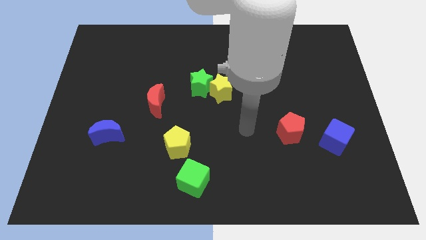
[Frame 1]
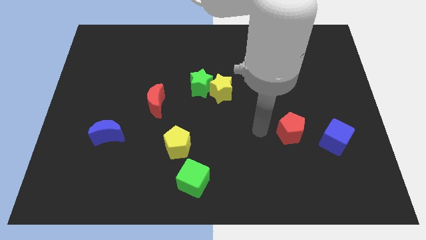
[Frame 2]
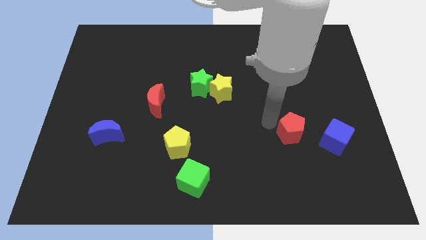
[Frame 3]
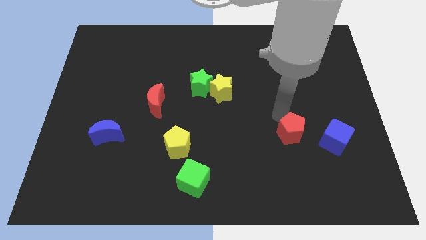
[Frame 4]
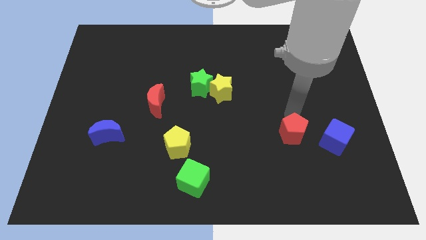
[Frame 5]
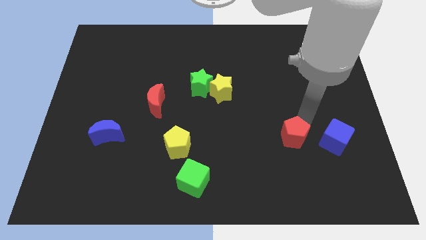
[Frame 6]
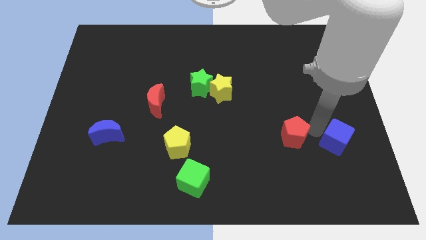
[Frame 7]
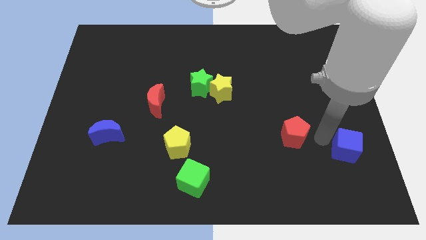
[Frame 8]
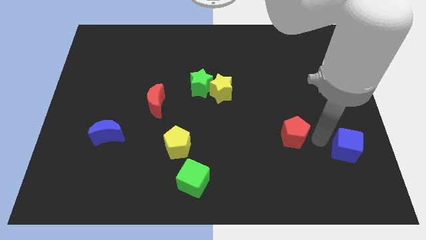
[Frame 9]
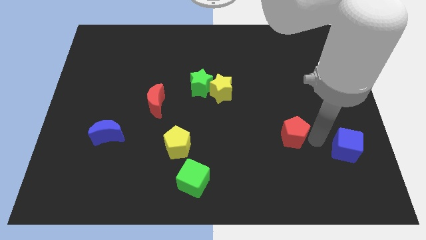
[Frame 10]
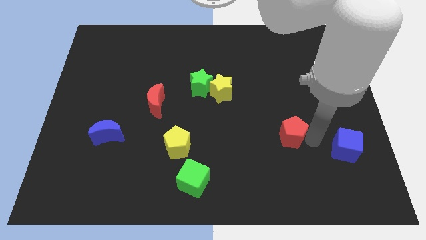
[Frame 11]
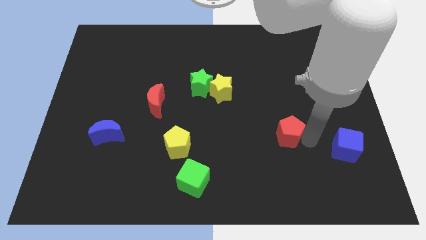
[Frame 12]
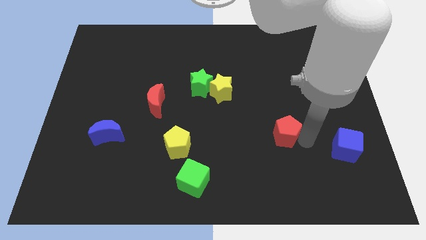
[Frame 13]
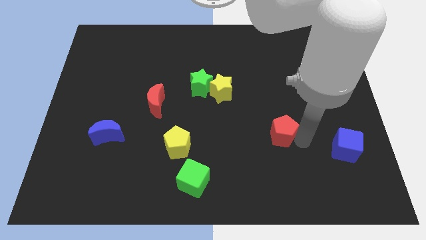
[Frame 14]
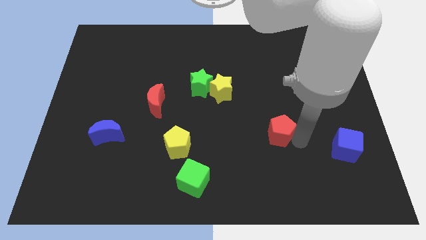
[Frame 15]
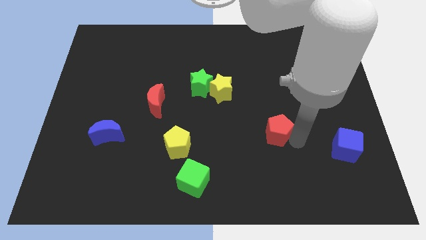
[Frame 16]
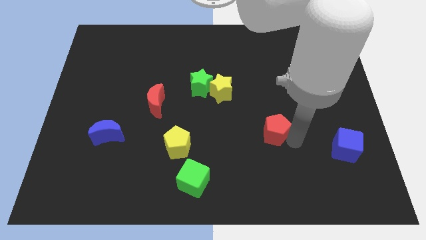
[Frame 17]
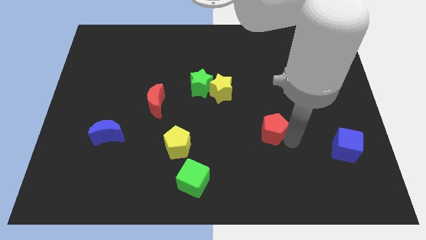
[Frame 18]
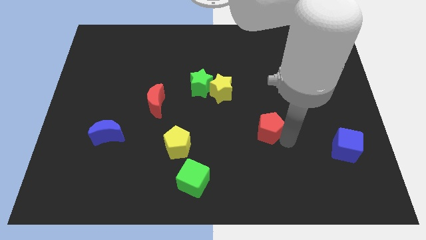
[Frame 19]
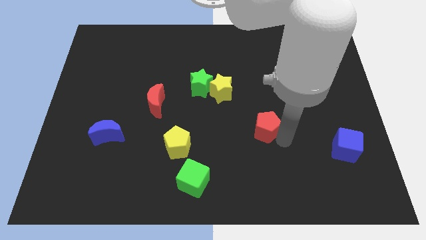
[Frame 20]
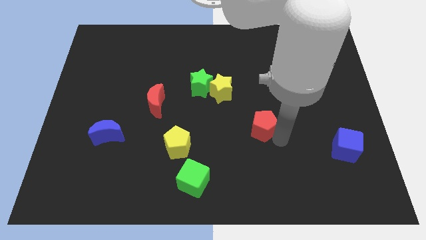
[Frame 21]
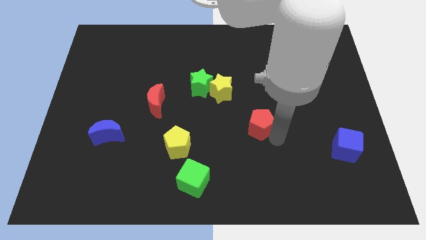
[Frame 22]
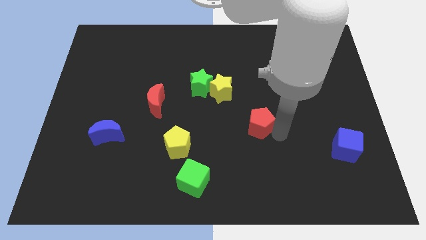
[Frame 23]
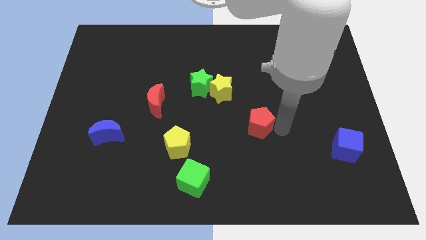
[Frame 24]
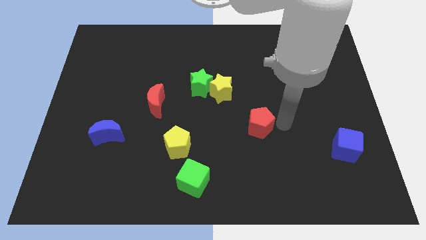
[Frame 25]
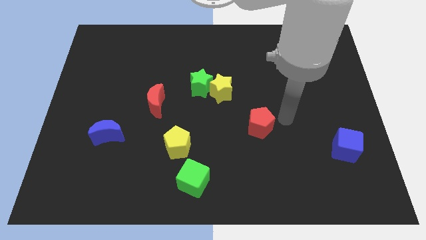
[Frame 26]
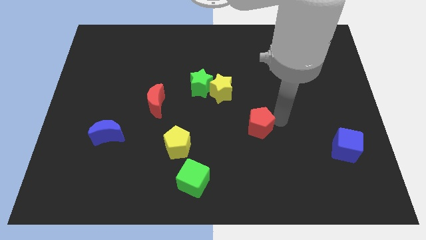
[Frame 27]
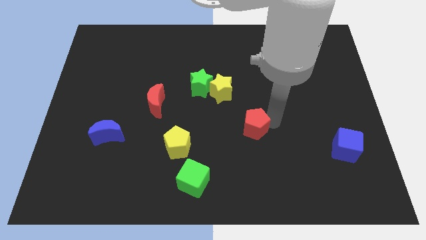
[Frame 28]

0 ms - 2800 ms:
slide the red pentagon to the left a little bit

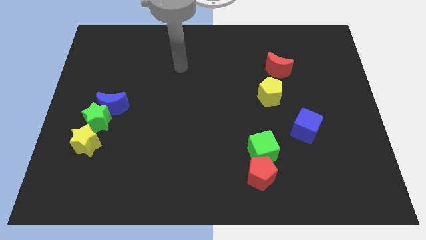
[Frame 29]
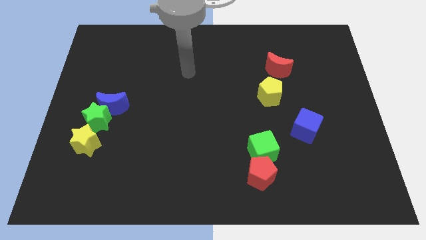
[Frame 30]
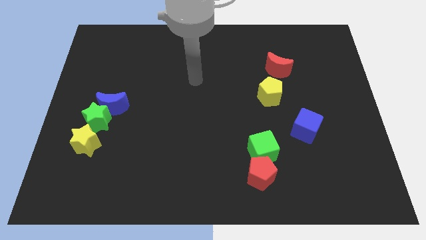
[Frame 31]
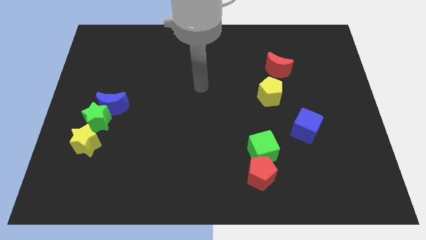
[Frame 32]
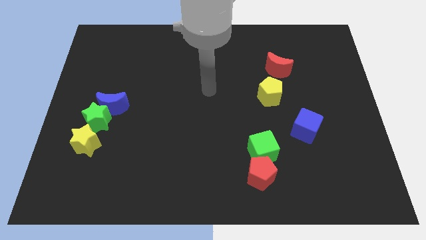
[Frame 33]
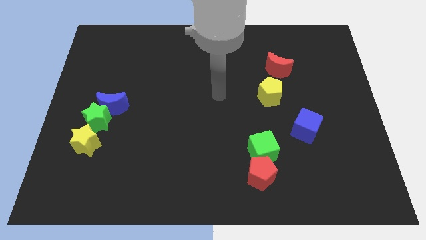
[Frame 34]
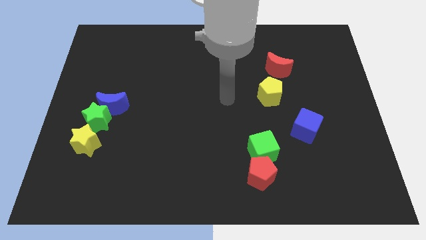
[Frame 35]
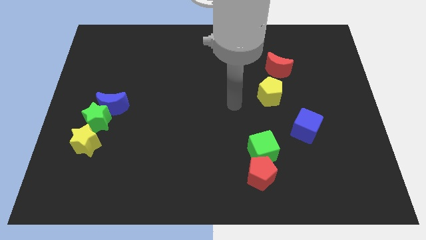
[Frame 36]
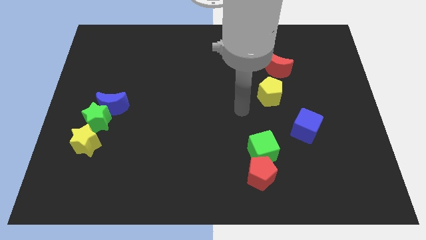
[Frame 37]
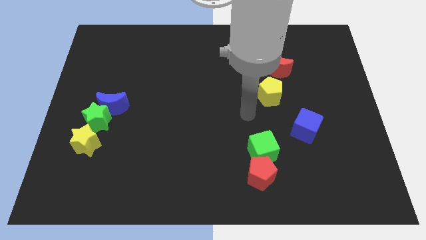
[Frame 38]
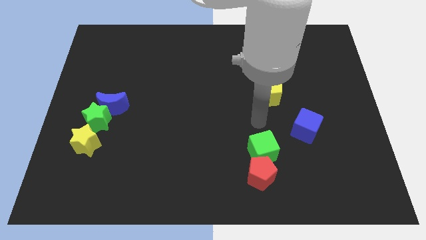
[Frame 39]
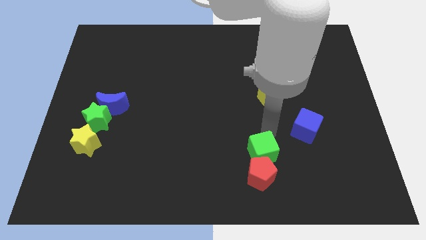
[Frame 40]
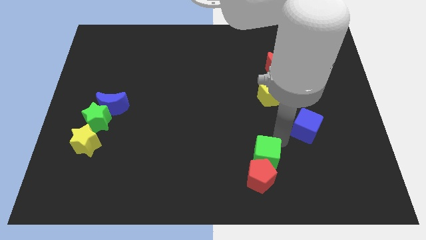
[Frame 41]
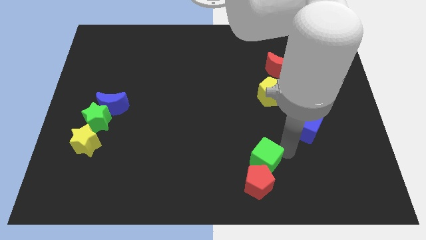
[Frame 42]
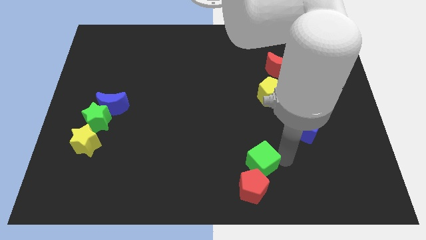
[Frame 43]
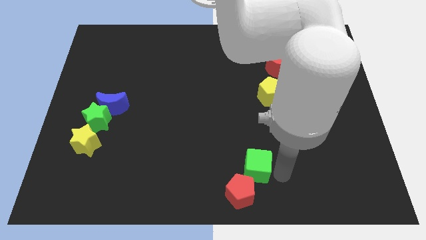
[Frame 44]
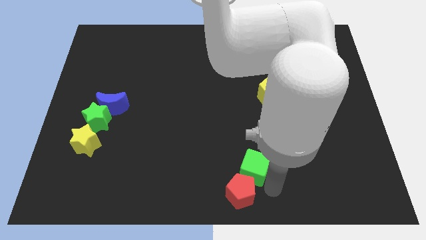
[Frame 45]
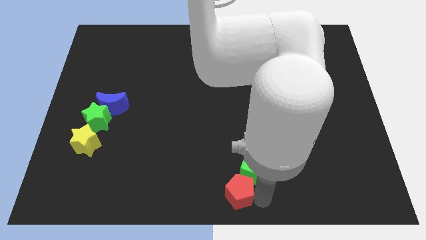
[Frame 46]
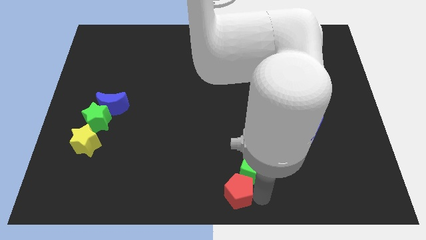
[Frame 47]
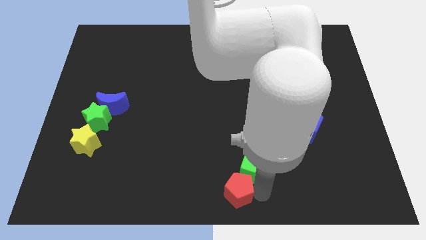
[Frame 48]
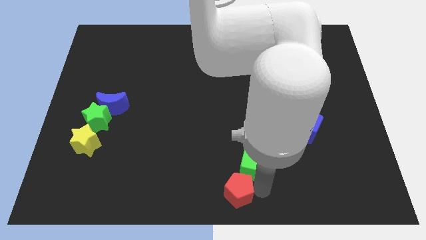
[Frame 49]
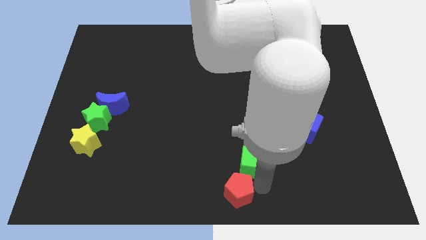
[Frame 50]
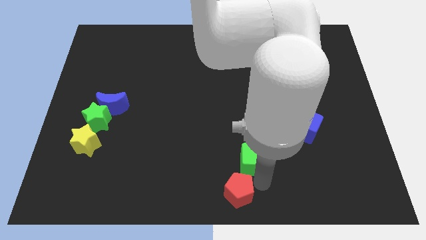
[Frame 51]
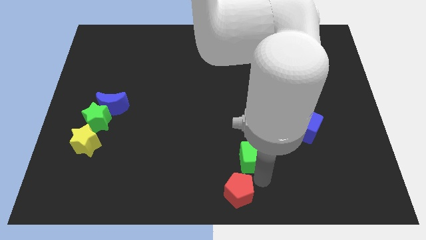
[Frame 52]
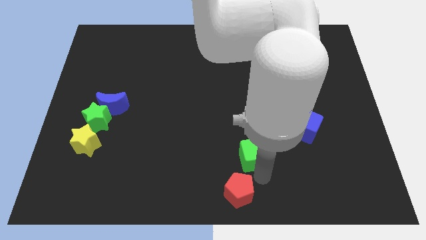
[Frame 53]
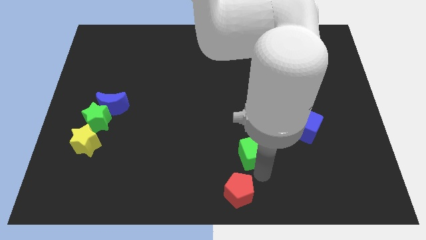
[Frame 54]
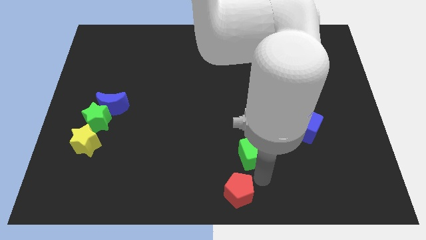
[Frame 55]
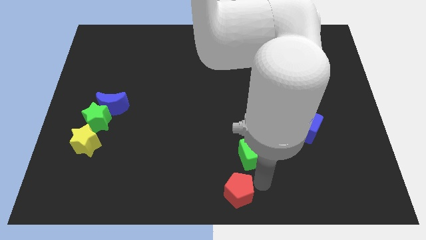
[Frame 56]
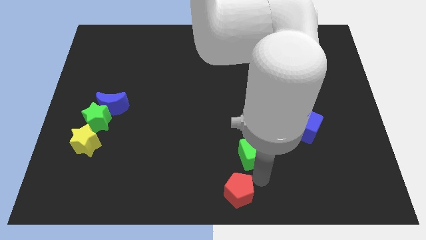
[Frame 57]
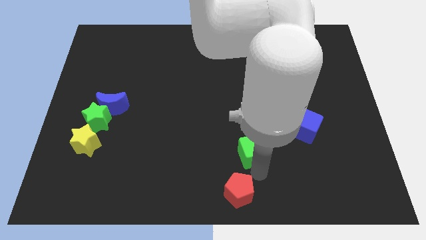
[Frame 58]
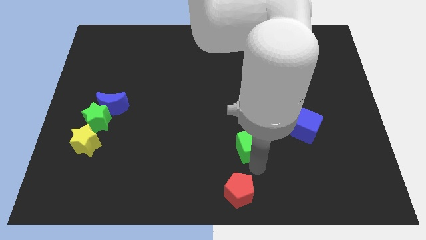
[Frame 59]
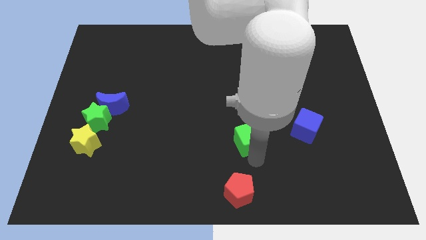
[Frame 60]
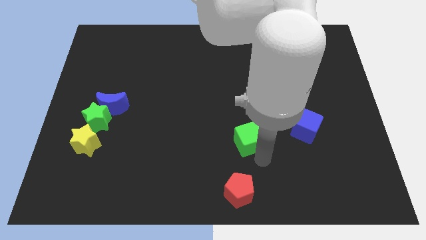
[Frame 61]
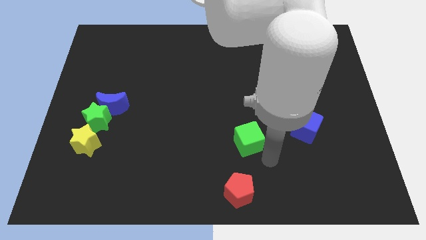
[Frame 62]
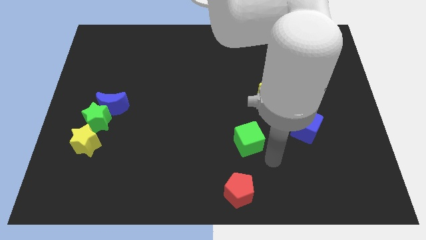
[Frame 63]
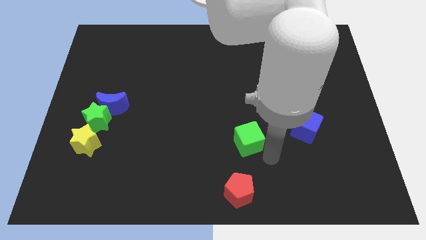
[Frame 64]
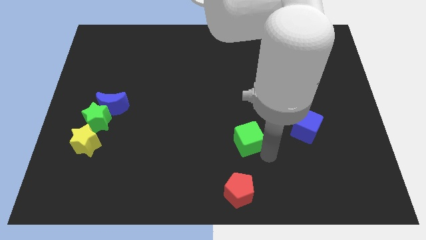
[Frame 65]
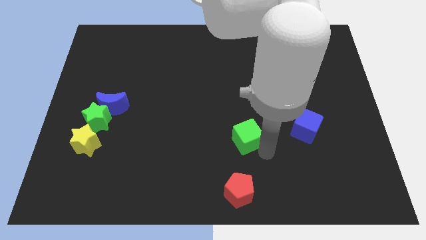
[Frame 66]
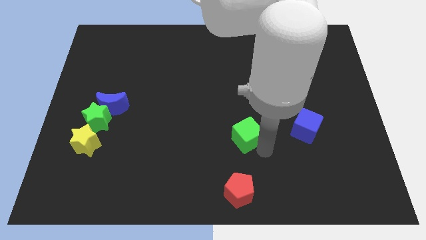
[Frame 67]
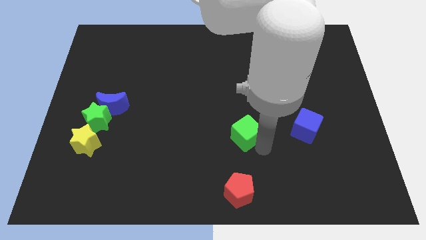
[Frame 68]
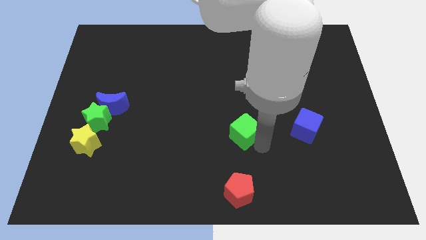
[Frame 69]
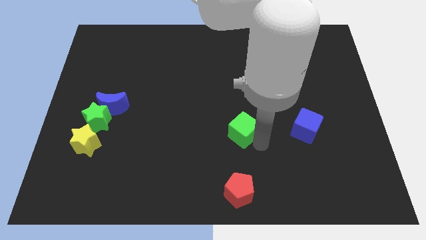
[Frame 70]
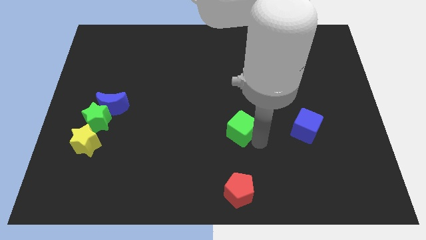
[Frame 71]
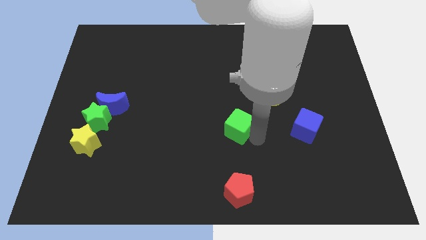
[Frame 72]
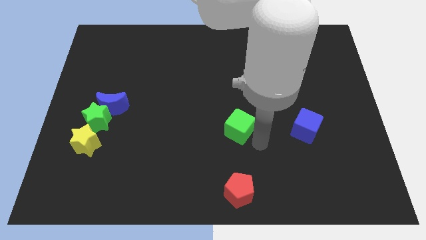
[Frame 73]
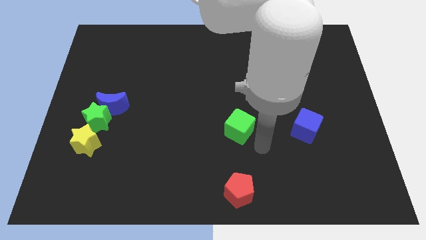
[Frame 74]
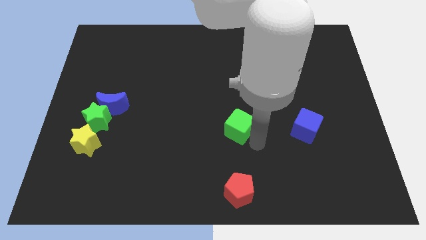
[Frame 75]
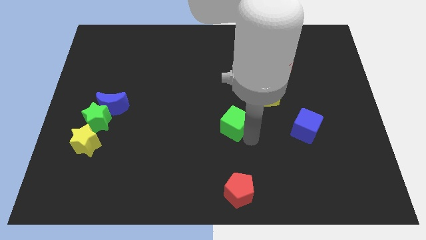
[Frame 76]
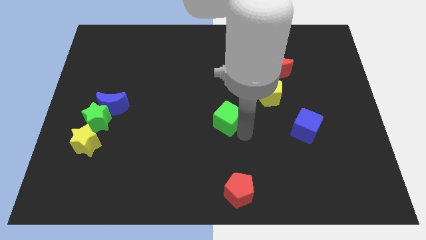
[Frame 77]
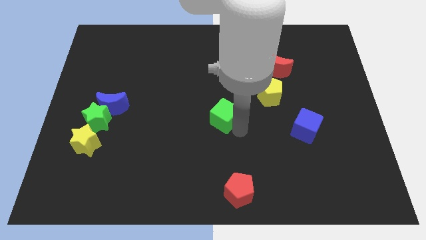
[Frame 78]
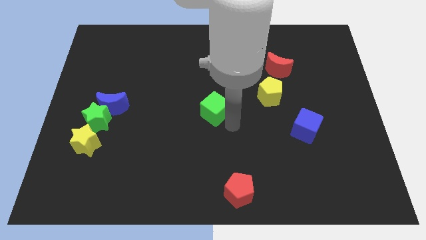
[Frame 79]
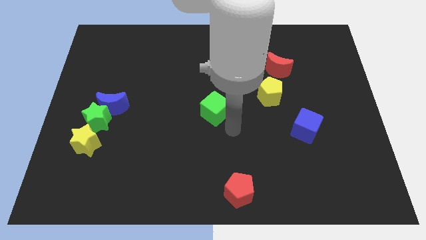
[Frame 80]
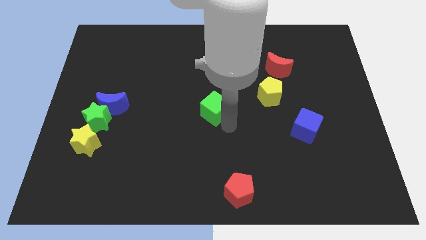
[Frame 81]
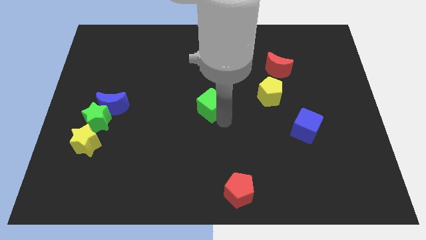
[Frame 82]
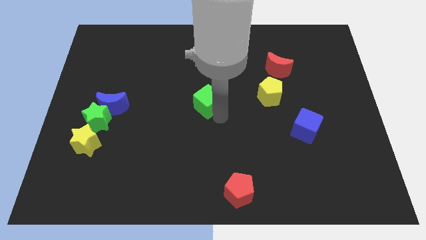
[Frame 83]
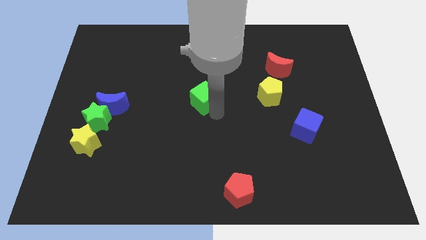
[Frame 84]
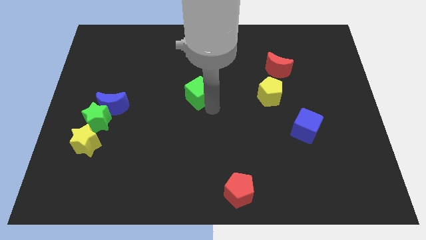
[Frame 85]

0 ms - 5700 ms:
push the green cube up and left diagonally

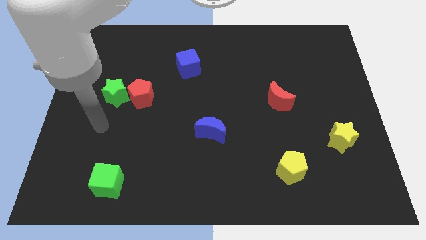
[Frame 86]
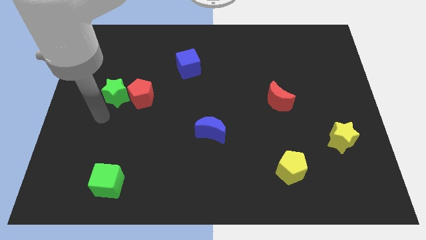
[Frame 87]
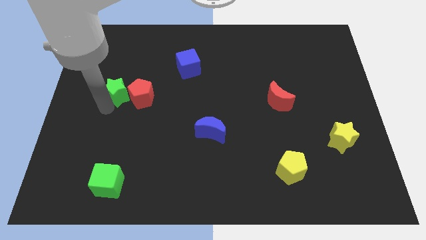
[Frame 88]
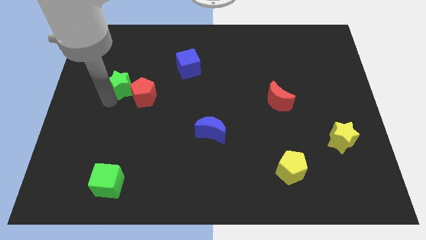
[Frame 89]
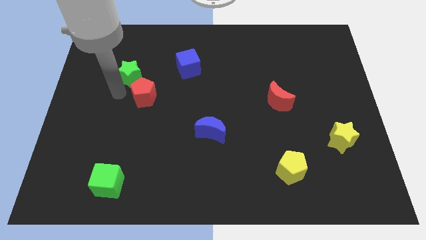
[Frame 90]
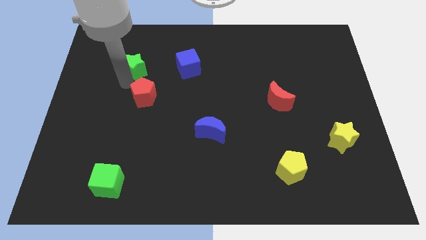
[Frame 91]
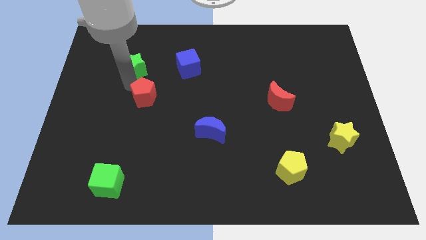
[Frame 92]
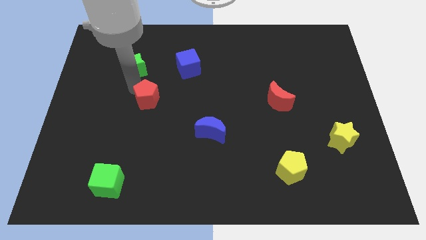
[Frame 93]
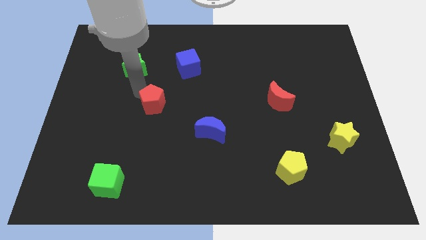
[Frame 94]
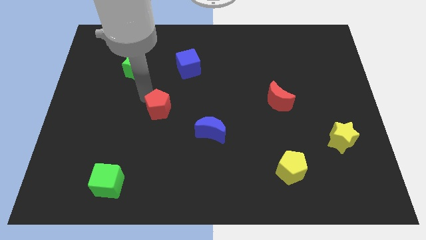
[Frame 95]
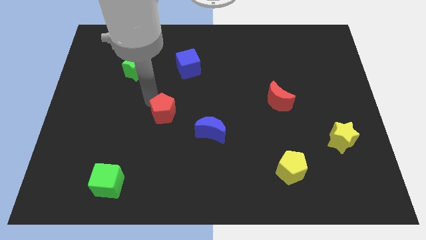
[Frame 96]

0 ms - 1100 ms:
slide the red pentagon down and to the right a little bit
